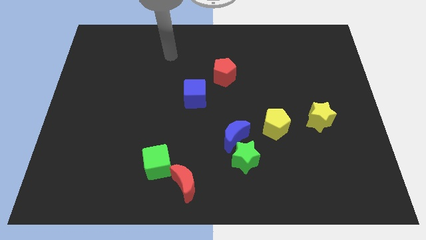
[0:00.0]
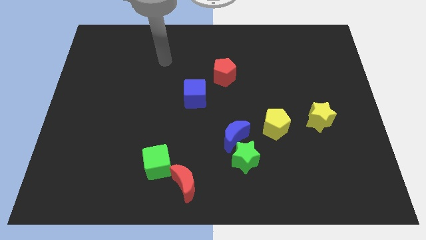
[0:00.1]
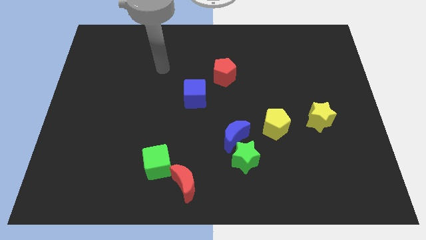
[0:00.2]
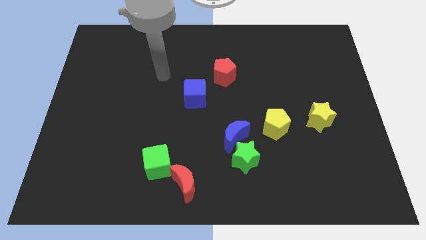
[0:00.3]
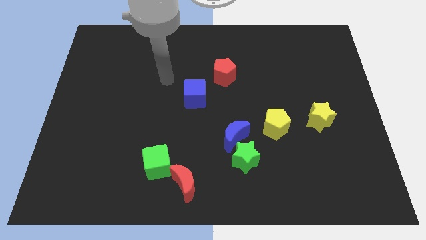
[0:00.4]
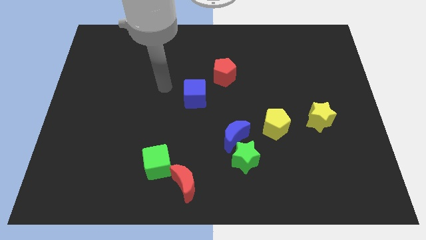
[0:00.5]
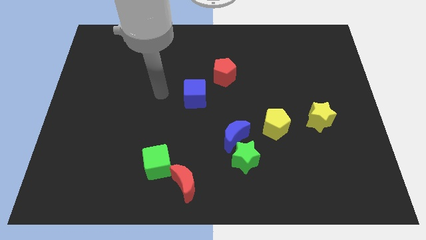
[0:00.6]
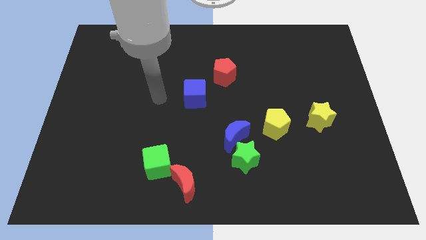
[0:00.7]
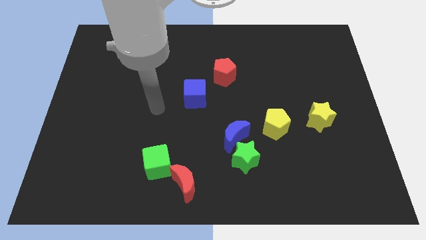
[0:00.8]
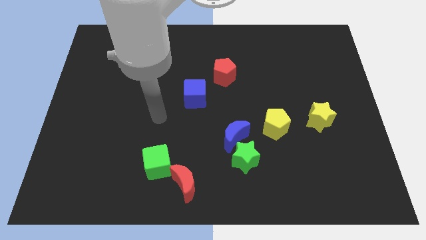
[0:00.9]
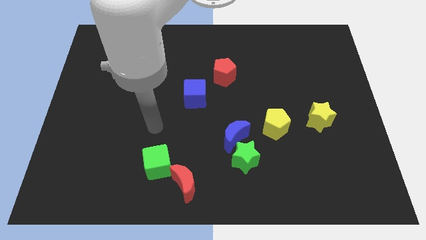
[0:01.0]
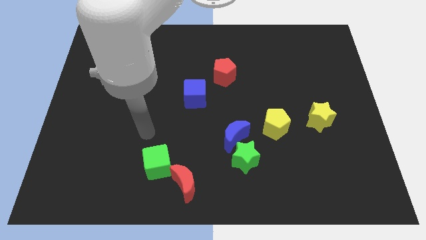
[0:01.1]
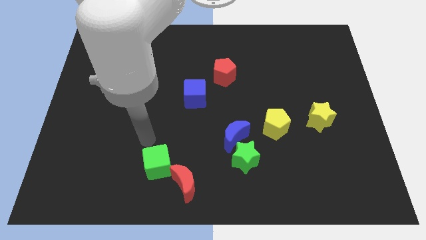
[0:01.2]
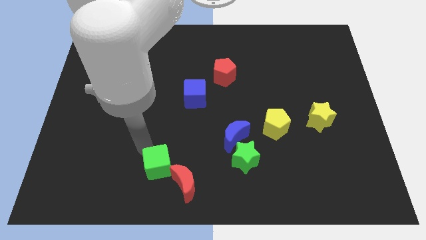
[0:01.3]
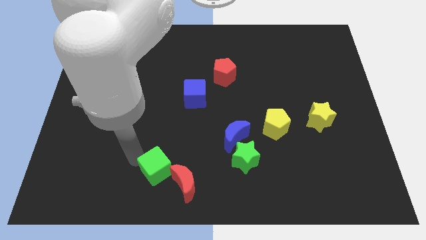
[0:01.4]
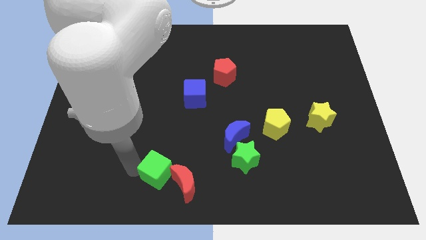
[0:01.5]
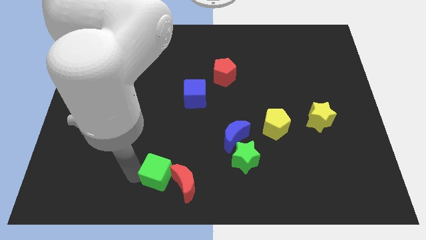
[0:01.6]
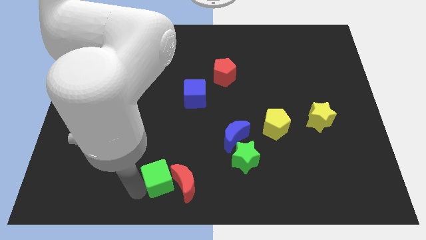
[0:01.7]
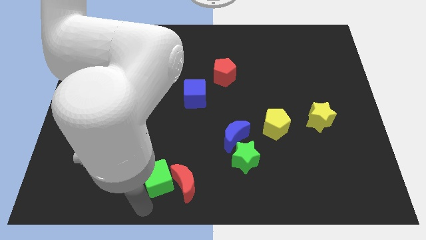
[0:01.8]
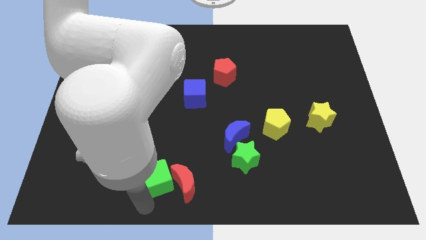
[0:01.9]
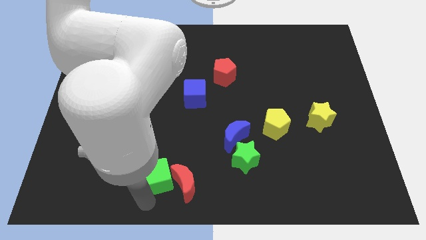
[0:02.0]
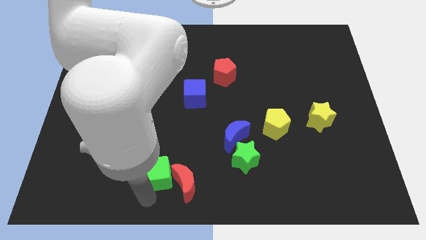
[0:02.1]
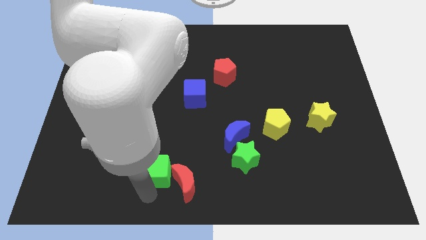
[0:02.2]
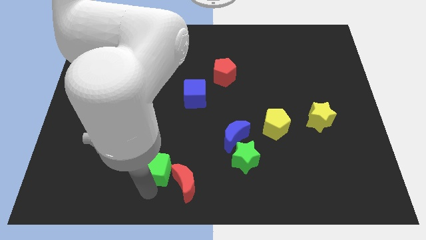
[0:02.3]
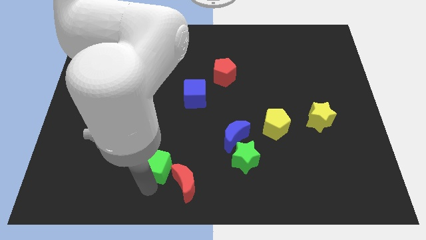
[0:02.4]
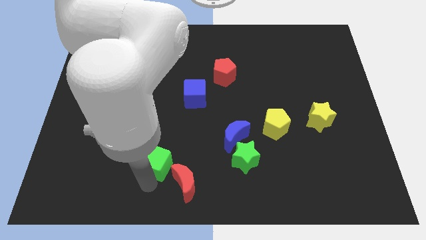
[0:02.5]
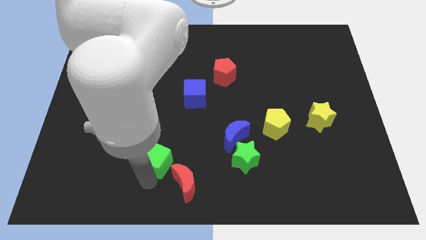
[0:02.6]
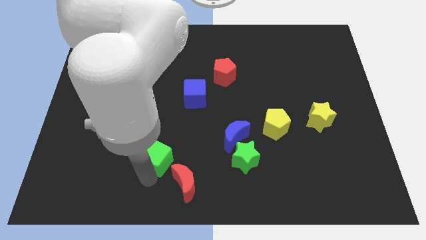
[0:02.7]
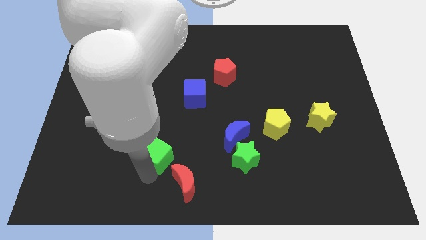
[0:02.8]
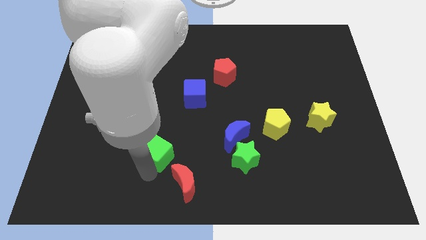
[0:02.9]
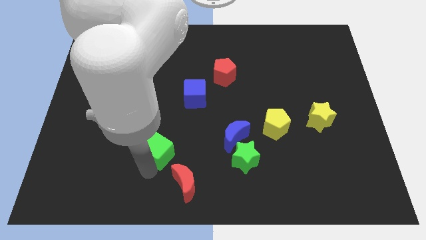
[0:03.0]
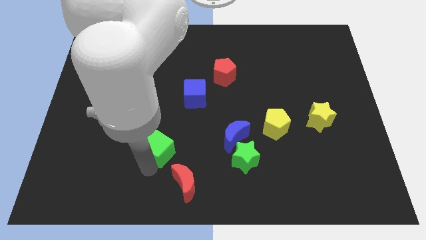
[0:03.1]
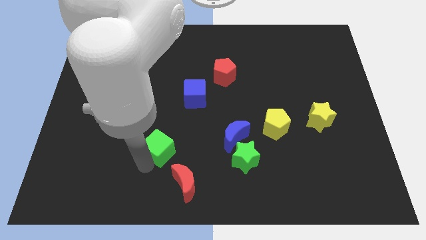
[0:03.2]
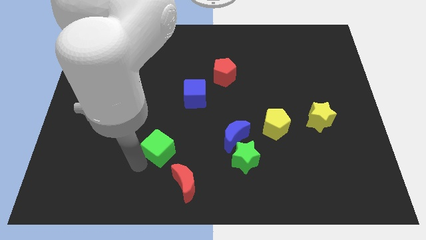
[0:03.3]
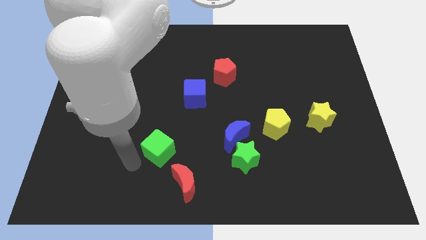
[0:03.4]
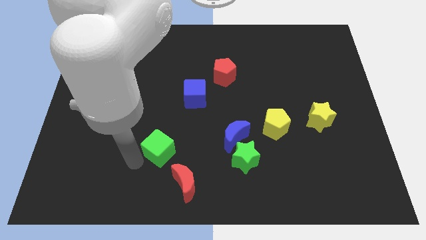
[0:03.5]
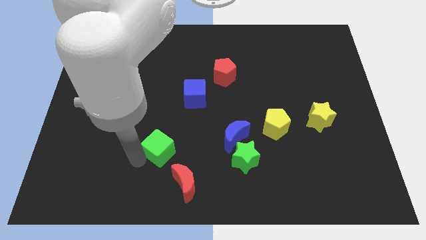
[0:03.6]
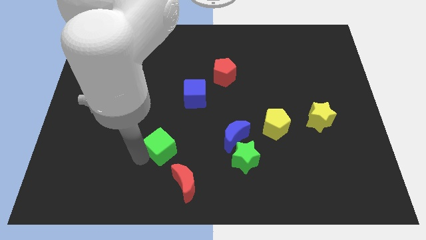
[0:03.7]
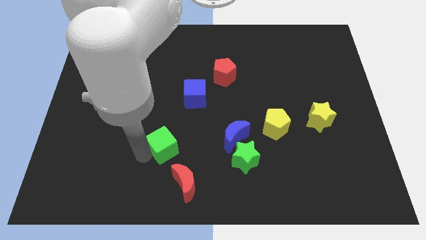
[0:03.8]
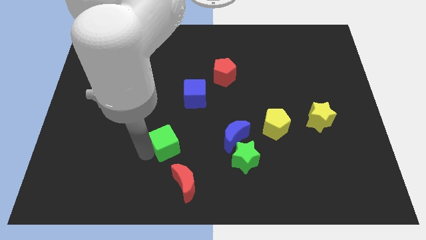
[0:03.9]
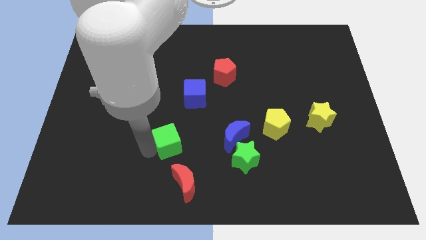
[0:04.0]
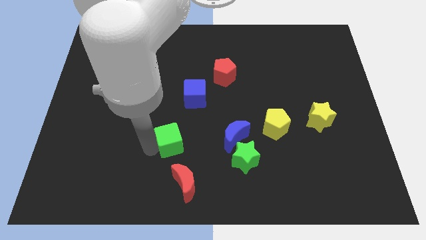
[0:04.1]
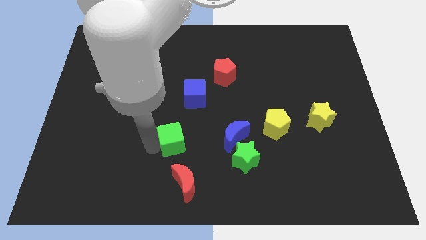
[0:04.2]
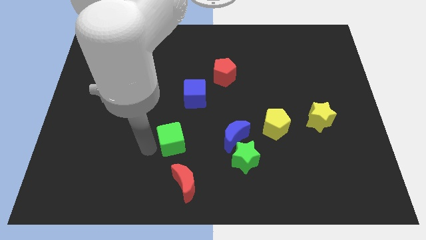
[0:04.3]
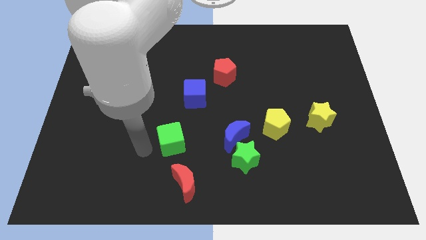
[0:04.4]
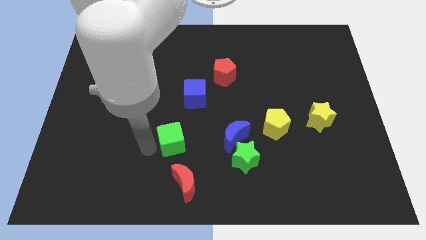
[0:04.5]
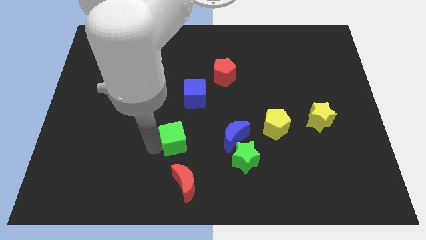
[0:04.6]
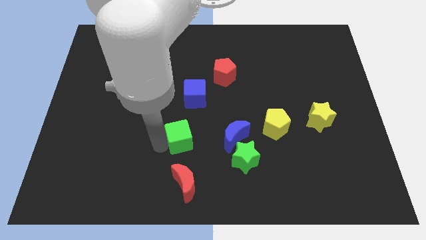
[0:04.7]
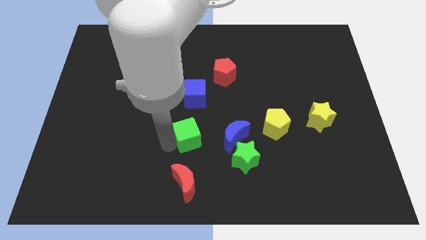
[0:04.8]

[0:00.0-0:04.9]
slide the green cube to the middle

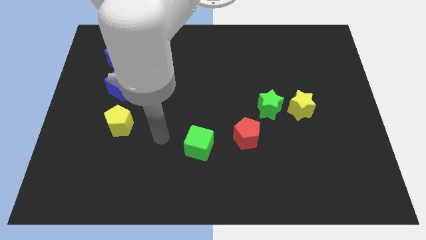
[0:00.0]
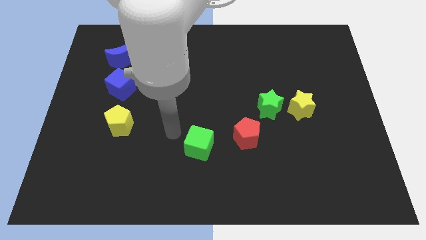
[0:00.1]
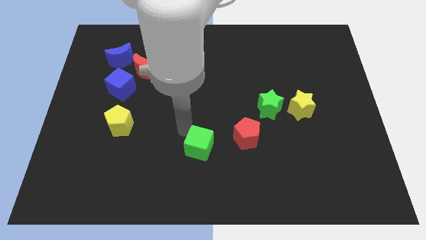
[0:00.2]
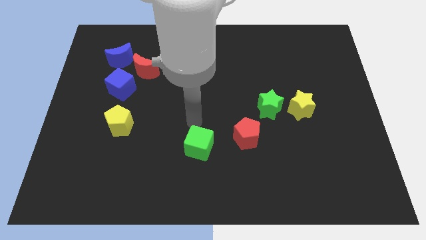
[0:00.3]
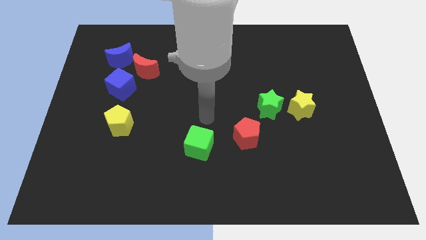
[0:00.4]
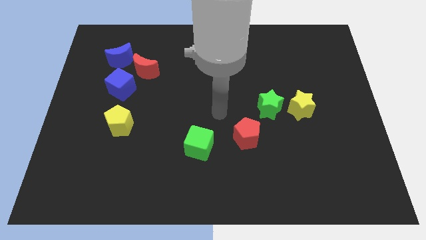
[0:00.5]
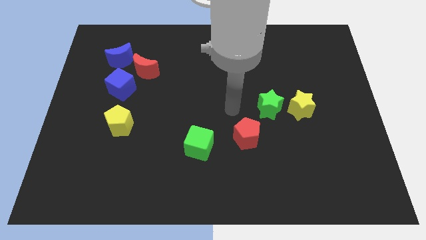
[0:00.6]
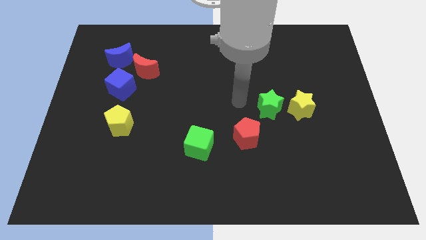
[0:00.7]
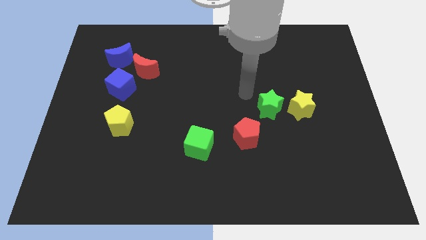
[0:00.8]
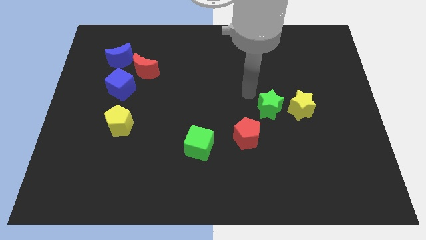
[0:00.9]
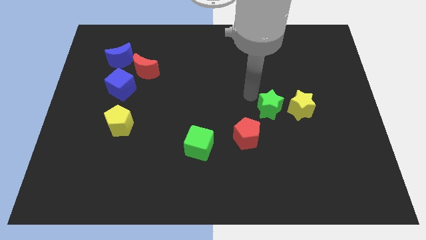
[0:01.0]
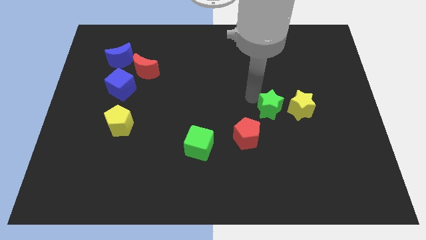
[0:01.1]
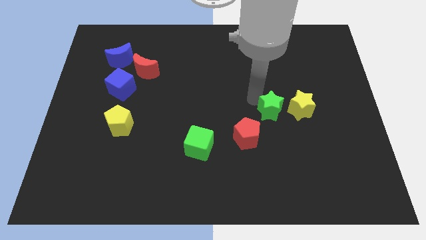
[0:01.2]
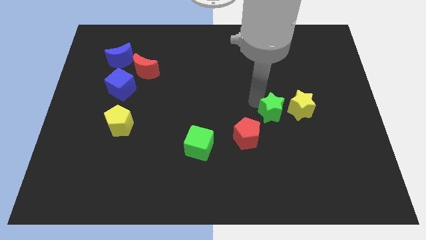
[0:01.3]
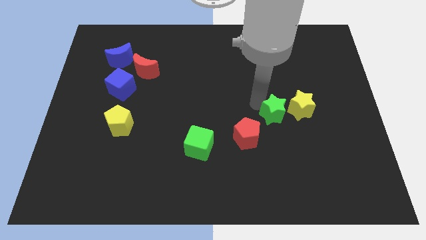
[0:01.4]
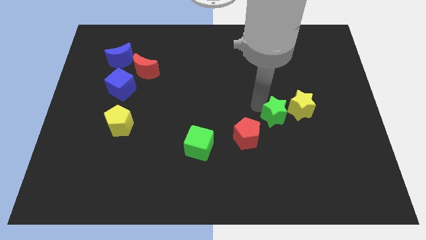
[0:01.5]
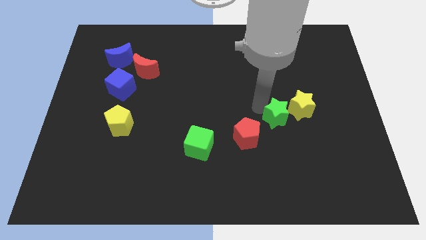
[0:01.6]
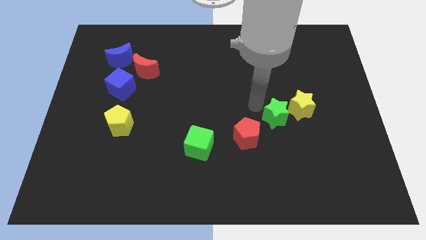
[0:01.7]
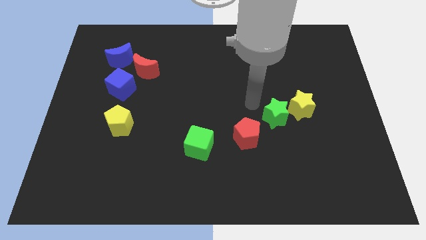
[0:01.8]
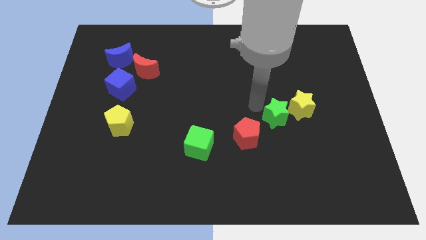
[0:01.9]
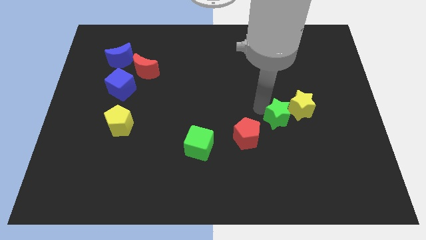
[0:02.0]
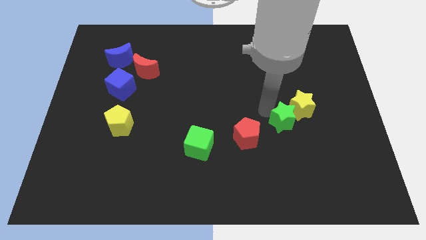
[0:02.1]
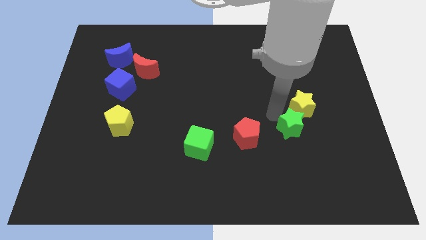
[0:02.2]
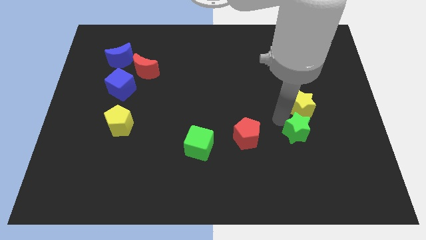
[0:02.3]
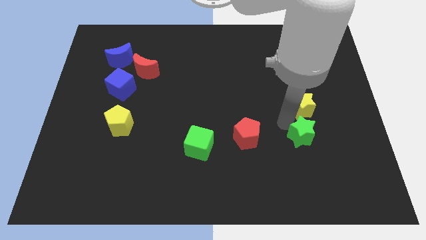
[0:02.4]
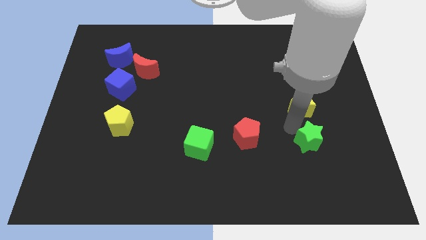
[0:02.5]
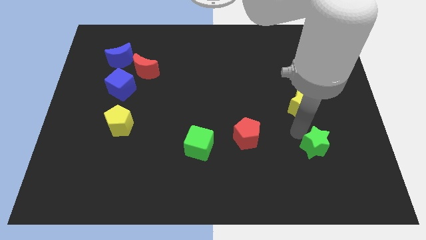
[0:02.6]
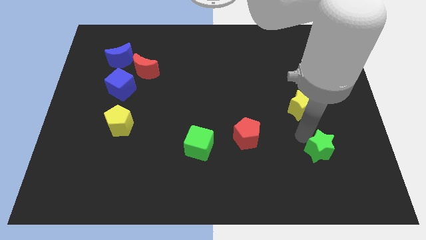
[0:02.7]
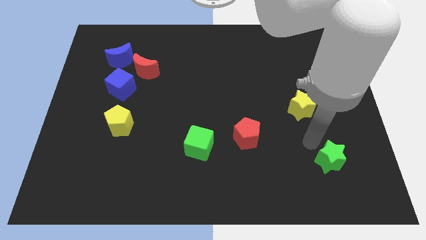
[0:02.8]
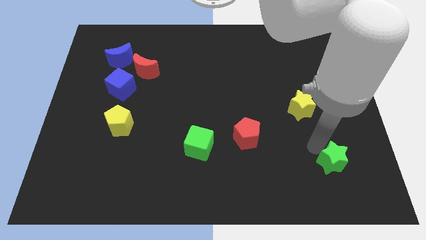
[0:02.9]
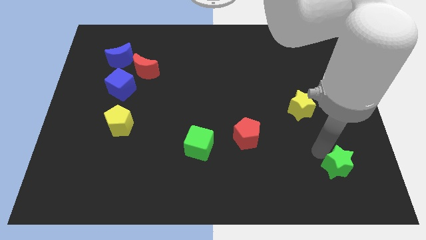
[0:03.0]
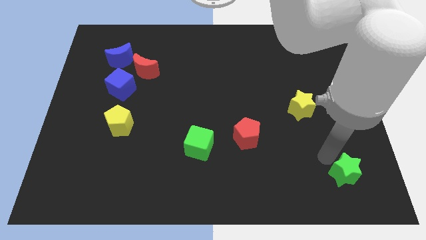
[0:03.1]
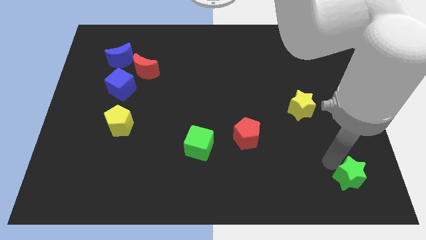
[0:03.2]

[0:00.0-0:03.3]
put the green star to the lower right corner
